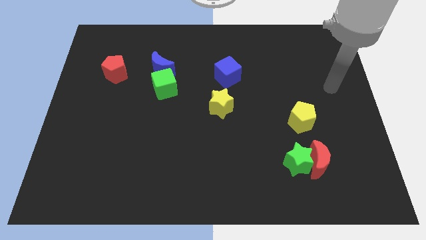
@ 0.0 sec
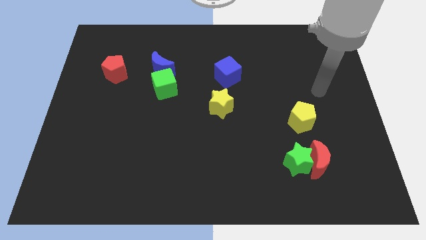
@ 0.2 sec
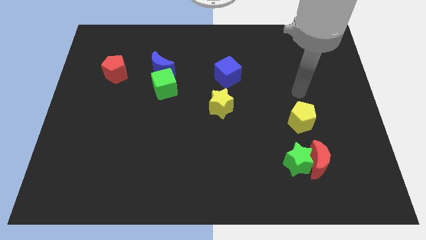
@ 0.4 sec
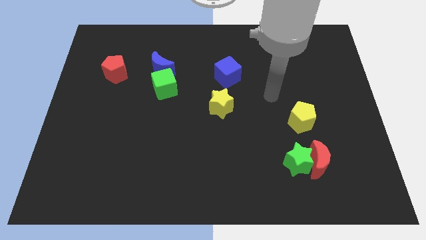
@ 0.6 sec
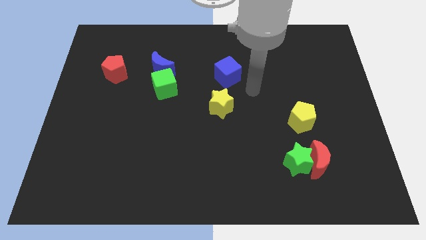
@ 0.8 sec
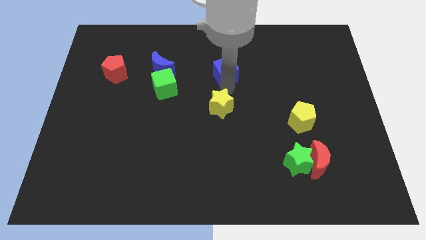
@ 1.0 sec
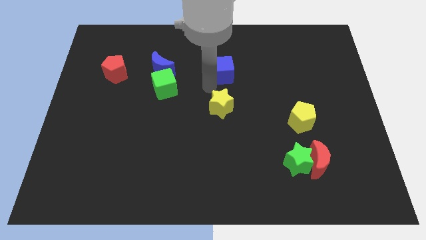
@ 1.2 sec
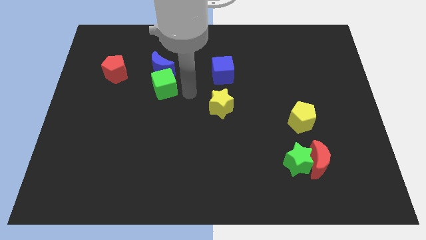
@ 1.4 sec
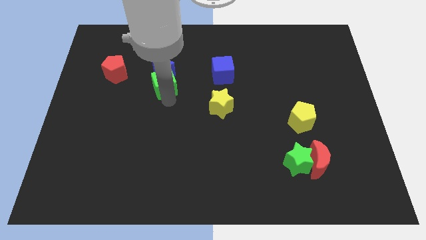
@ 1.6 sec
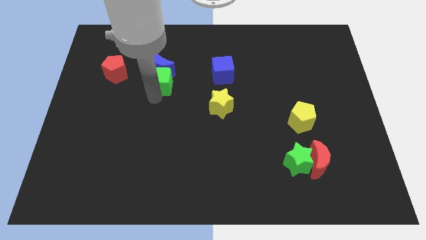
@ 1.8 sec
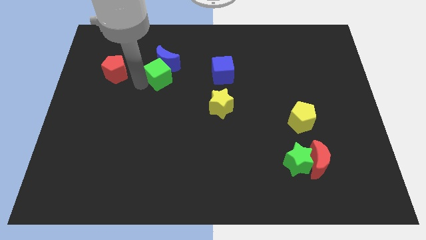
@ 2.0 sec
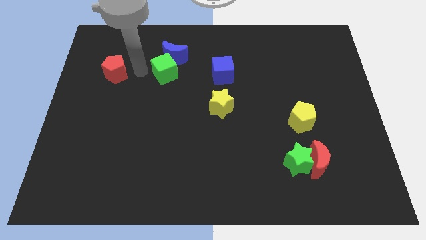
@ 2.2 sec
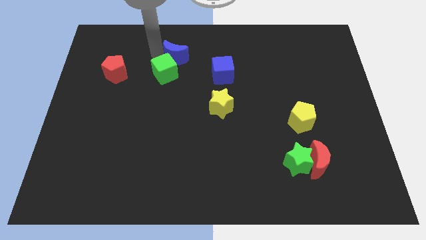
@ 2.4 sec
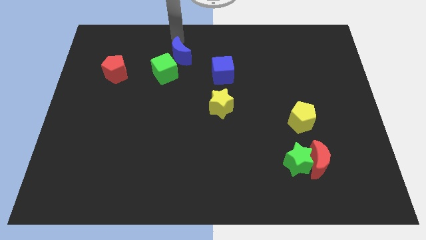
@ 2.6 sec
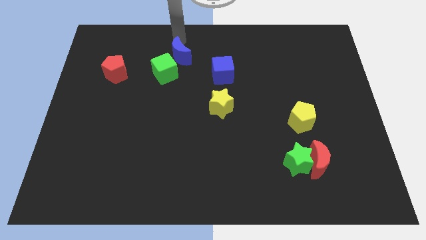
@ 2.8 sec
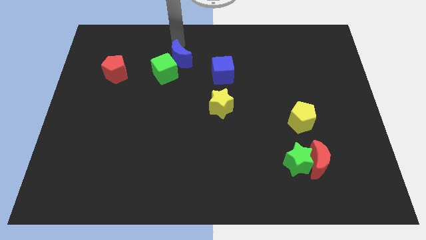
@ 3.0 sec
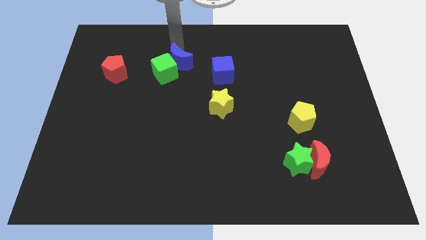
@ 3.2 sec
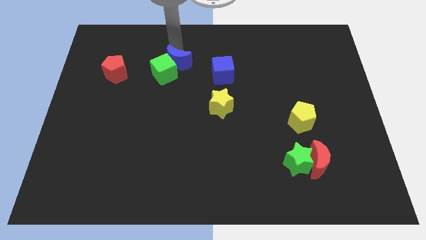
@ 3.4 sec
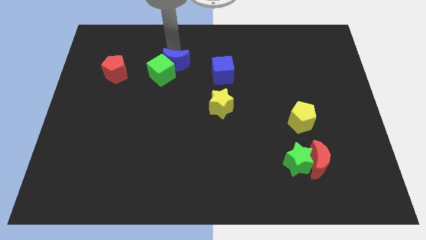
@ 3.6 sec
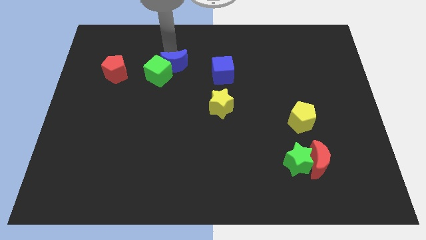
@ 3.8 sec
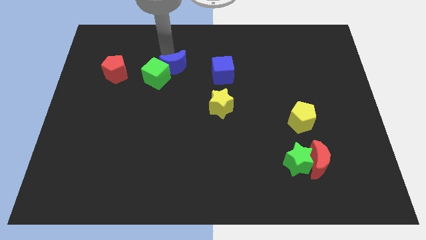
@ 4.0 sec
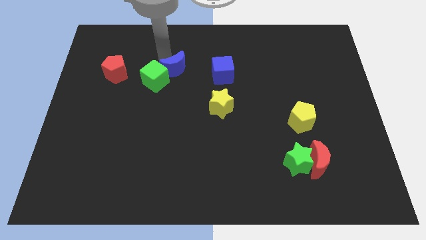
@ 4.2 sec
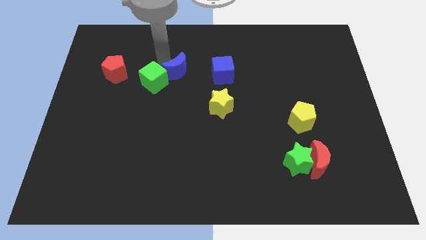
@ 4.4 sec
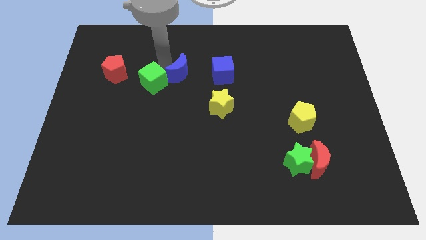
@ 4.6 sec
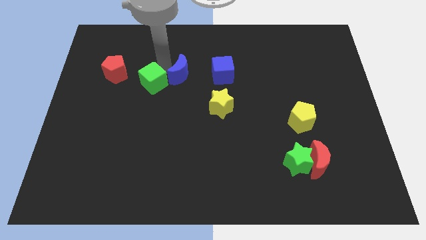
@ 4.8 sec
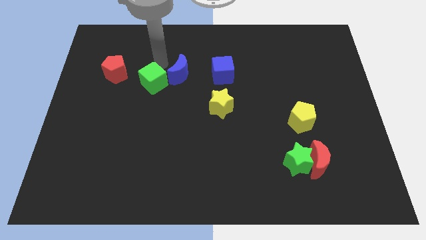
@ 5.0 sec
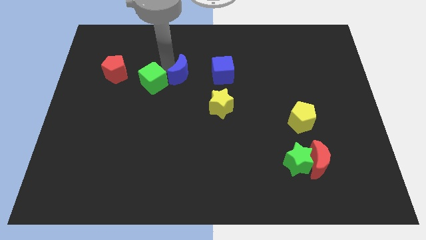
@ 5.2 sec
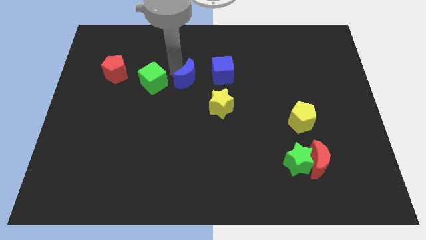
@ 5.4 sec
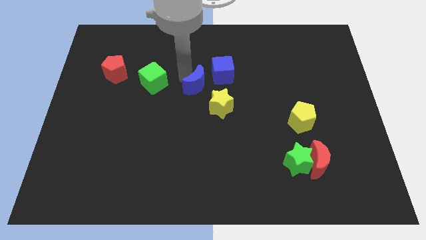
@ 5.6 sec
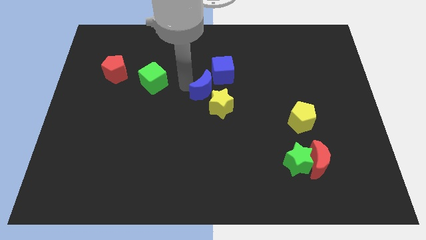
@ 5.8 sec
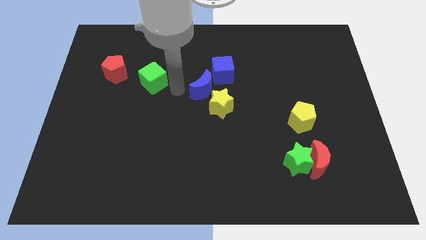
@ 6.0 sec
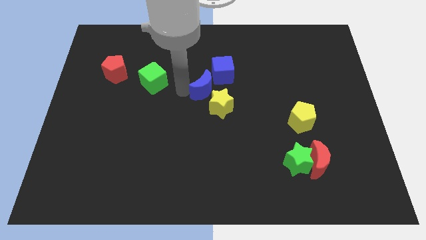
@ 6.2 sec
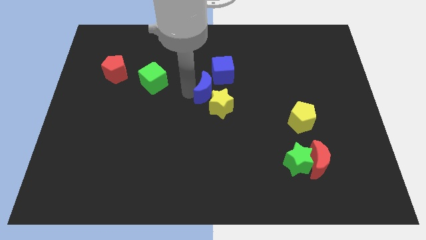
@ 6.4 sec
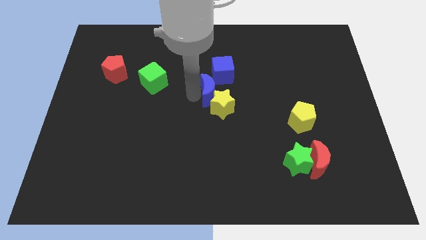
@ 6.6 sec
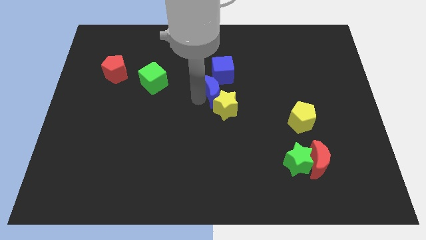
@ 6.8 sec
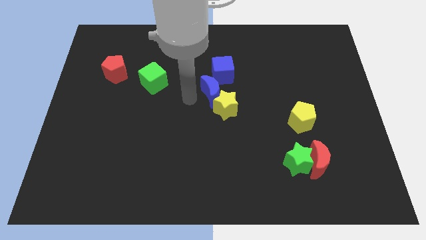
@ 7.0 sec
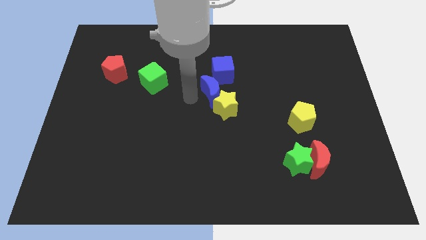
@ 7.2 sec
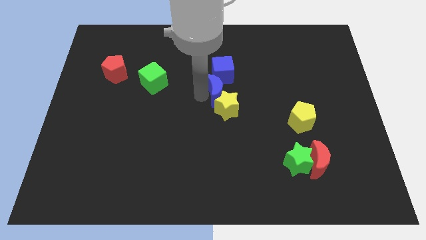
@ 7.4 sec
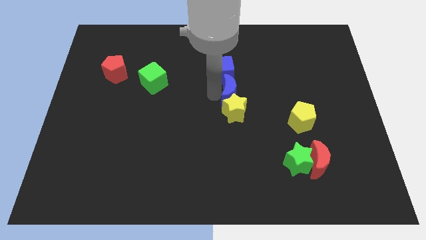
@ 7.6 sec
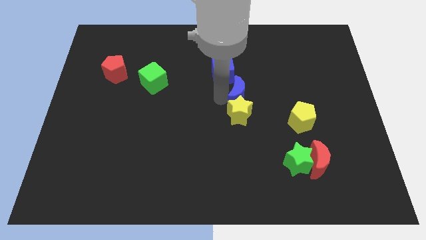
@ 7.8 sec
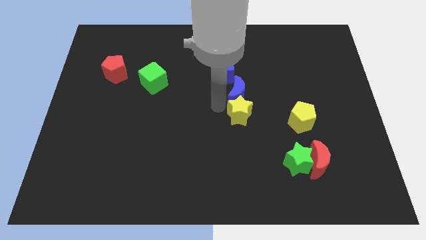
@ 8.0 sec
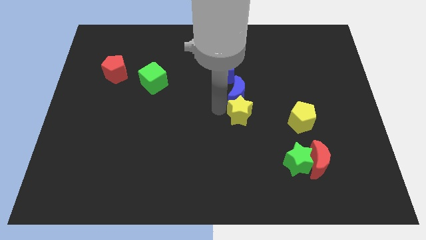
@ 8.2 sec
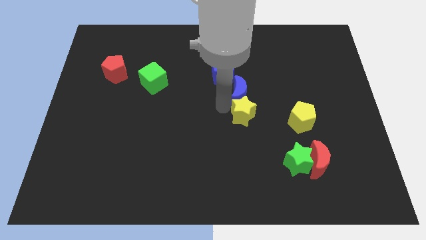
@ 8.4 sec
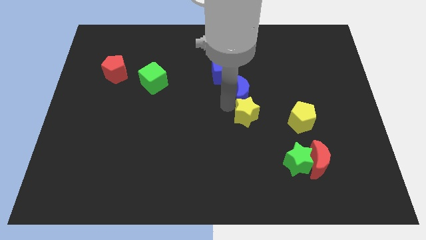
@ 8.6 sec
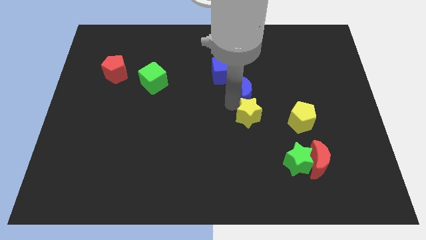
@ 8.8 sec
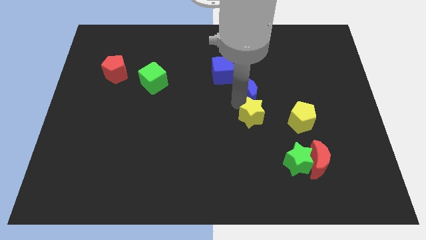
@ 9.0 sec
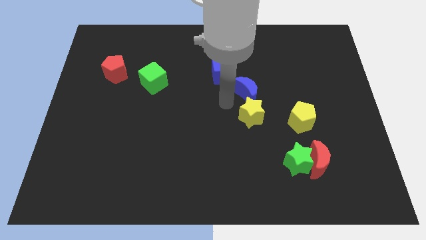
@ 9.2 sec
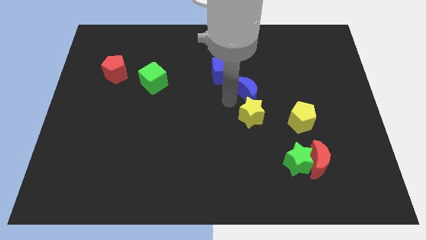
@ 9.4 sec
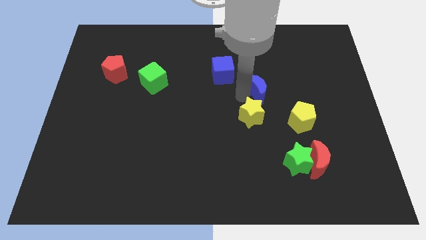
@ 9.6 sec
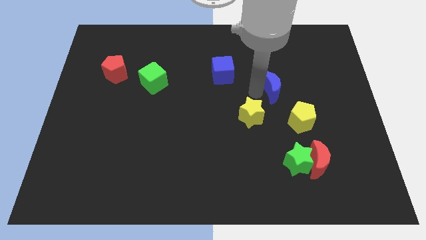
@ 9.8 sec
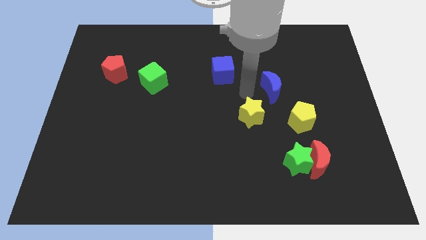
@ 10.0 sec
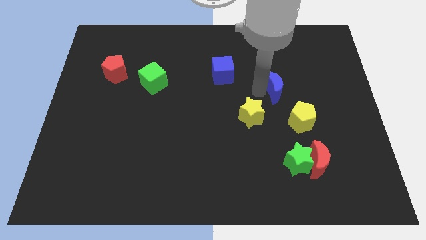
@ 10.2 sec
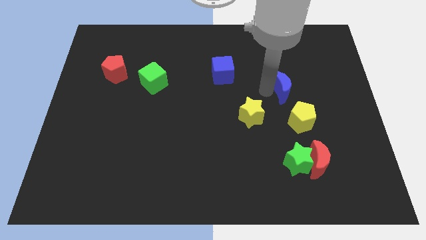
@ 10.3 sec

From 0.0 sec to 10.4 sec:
push the blue moon to the top side of the yellow pentagon

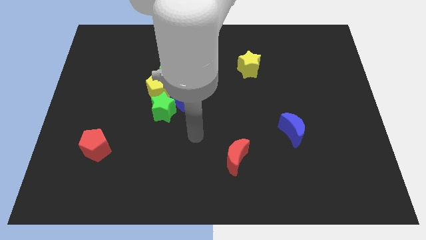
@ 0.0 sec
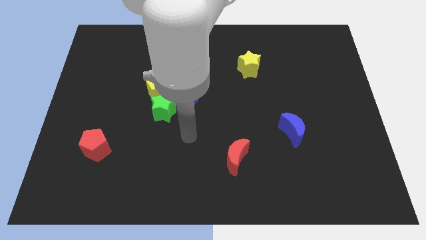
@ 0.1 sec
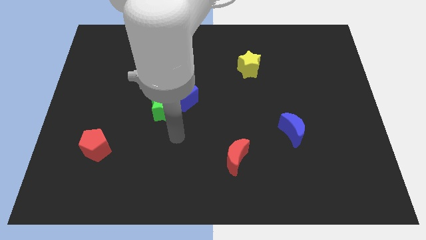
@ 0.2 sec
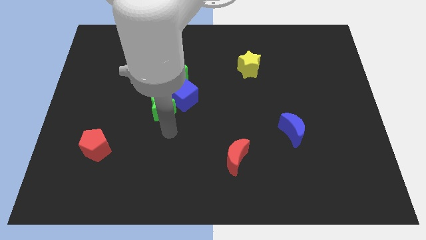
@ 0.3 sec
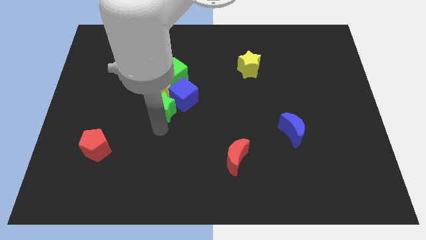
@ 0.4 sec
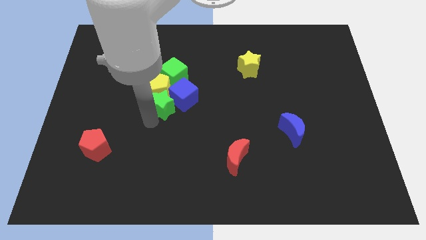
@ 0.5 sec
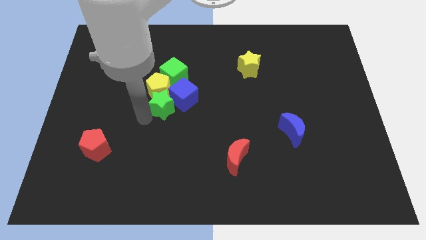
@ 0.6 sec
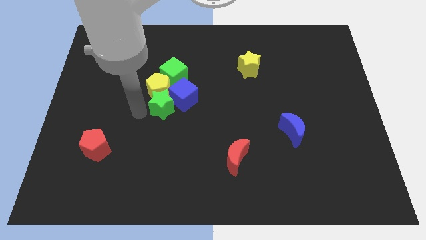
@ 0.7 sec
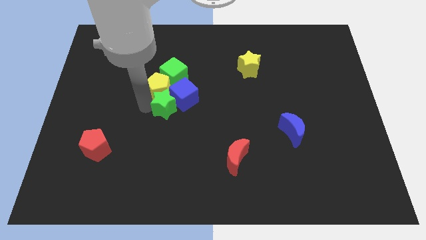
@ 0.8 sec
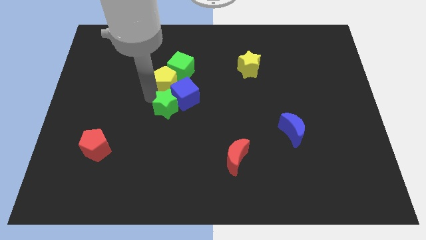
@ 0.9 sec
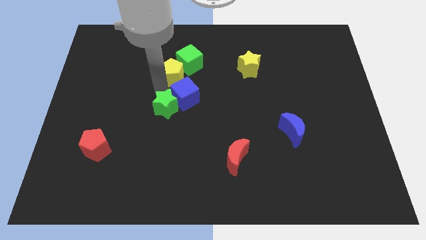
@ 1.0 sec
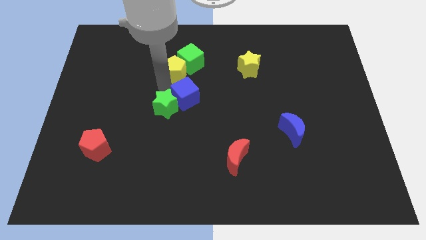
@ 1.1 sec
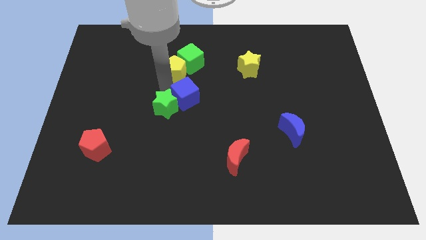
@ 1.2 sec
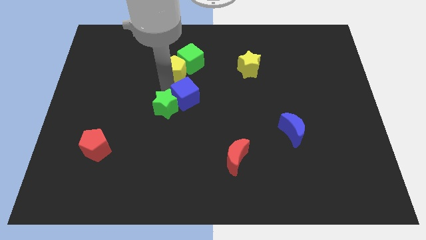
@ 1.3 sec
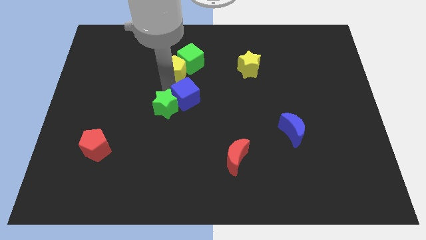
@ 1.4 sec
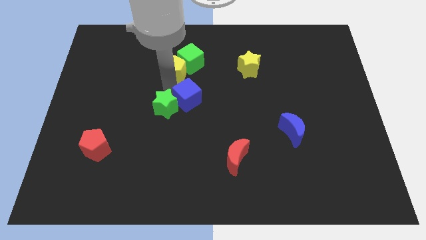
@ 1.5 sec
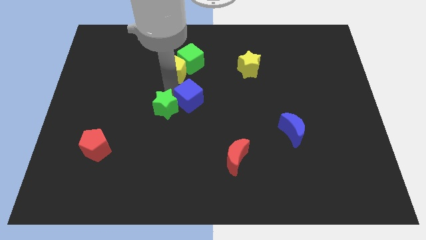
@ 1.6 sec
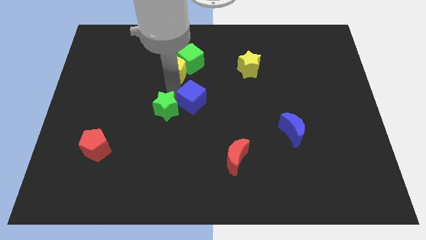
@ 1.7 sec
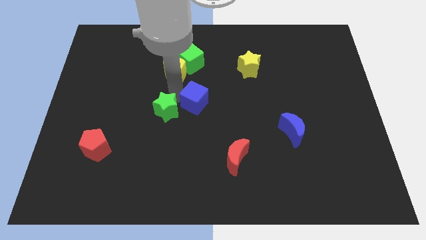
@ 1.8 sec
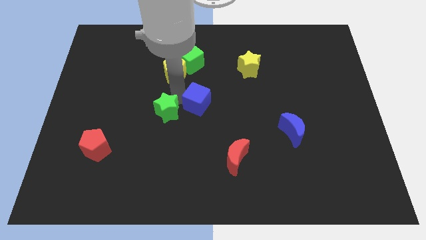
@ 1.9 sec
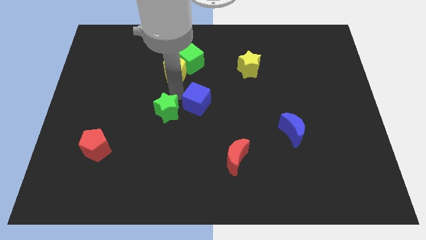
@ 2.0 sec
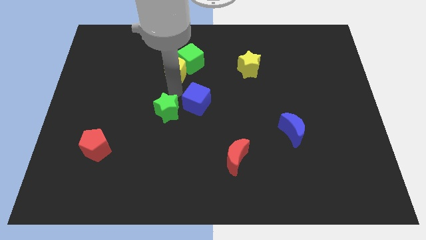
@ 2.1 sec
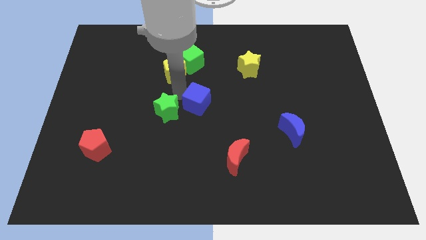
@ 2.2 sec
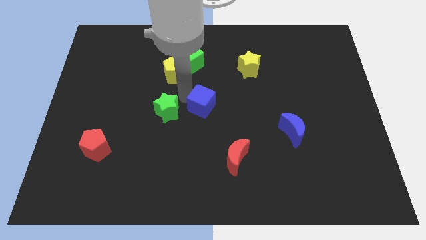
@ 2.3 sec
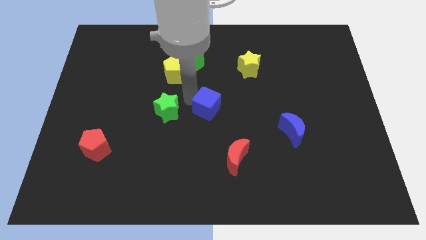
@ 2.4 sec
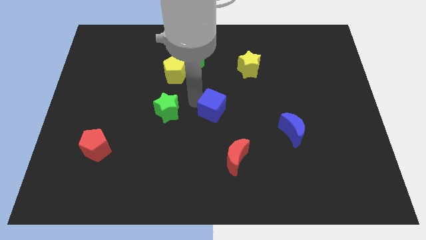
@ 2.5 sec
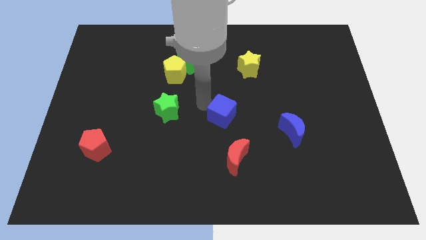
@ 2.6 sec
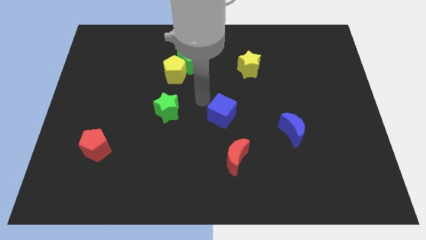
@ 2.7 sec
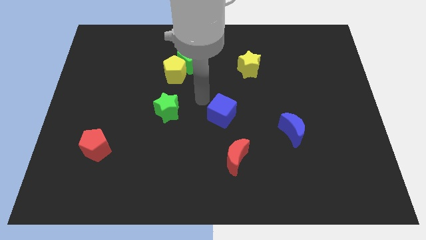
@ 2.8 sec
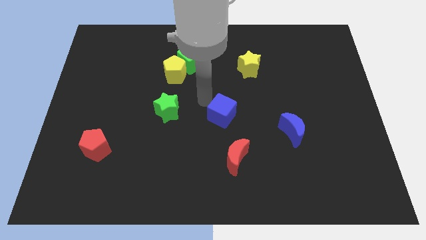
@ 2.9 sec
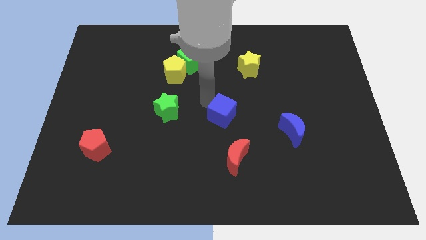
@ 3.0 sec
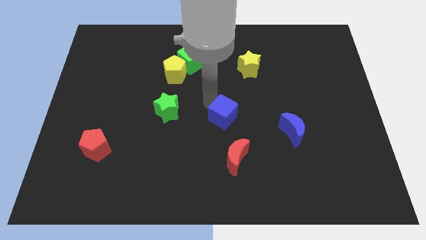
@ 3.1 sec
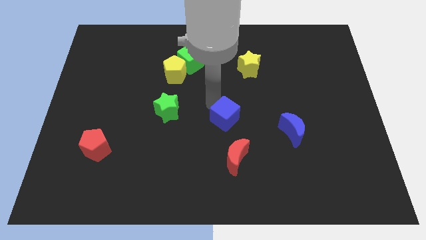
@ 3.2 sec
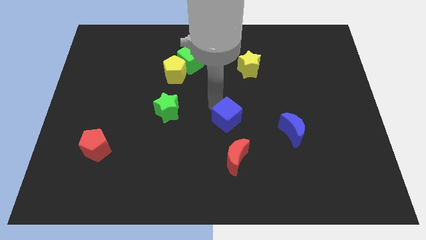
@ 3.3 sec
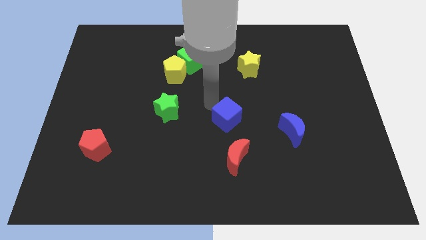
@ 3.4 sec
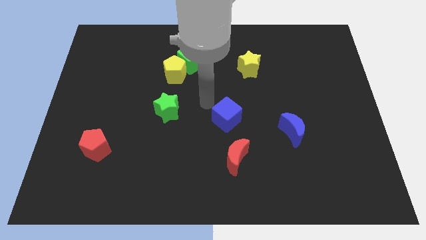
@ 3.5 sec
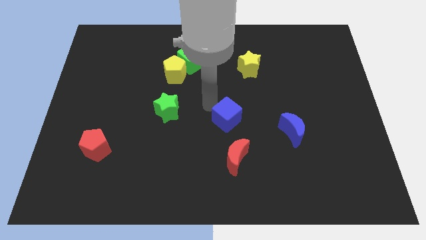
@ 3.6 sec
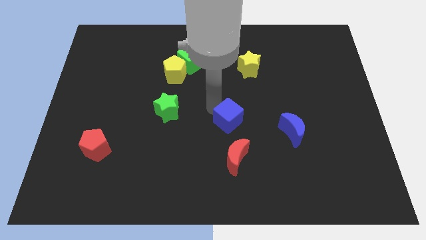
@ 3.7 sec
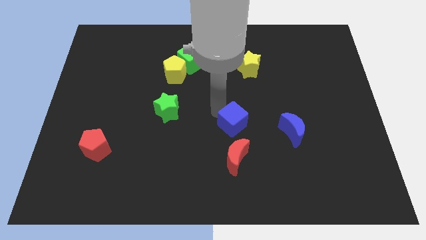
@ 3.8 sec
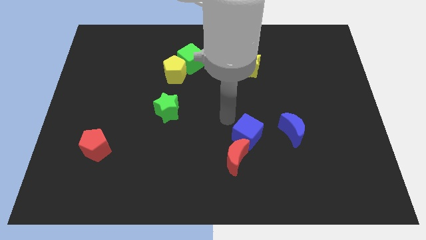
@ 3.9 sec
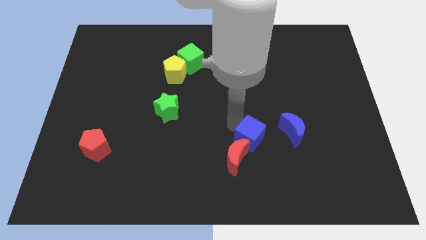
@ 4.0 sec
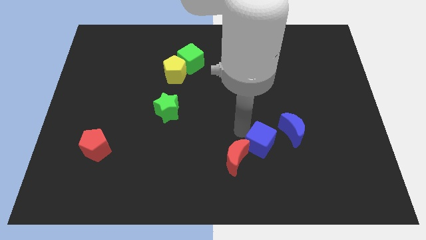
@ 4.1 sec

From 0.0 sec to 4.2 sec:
put the blue cube right of the red moon
